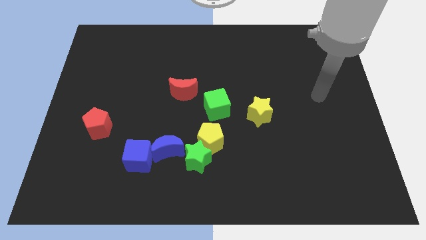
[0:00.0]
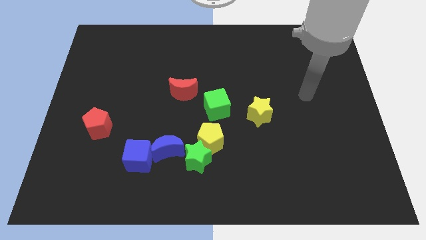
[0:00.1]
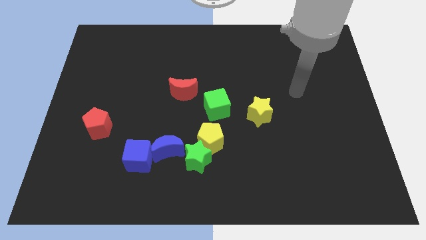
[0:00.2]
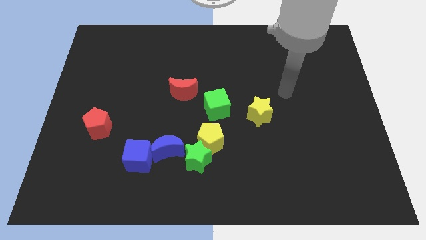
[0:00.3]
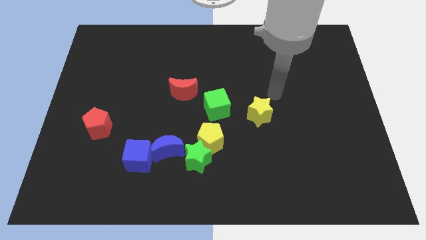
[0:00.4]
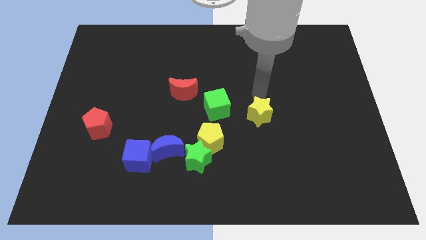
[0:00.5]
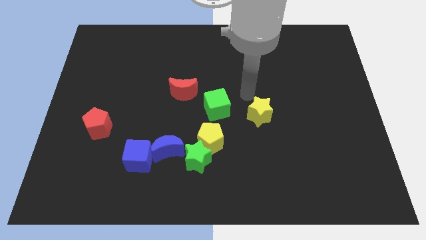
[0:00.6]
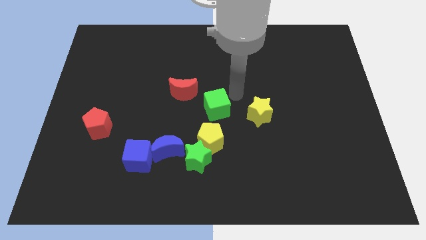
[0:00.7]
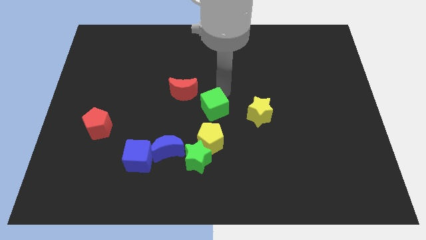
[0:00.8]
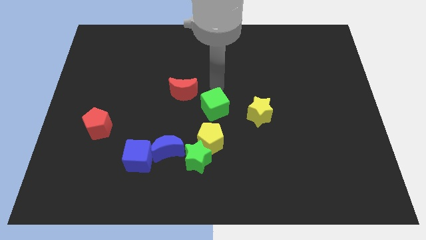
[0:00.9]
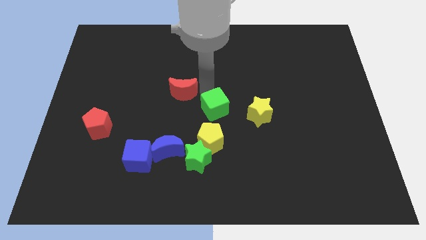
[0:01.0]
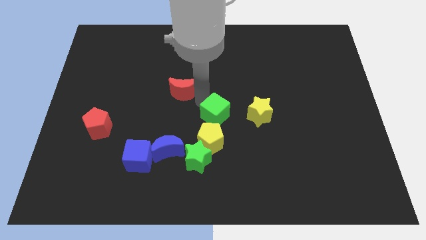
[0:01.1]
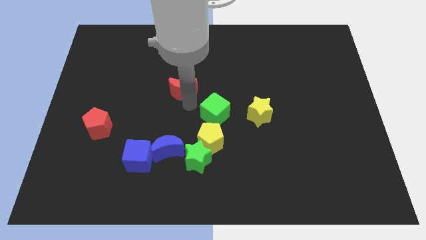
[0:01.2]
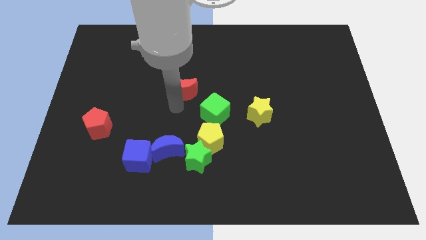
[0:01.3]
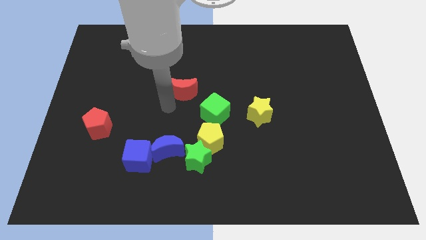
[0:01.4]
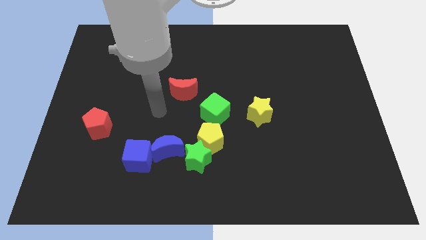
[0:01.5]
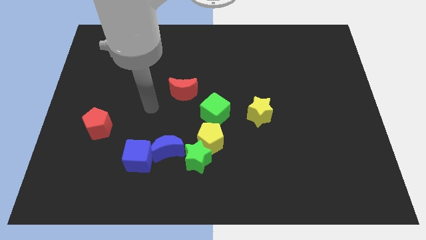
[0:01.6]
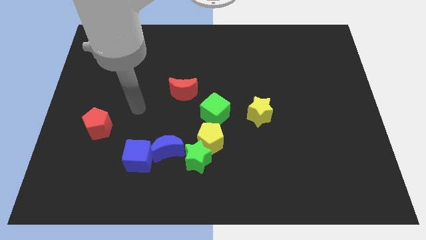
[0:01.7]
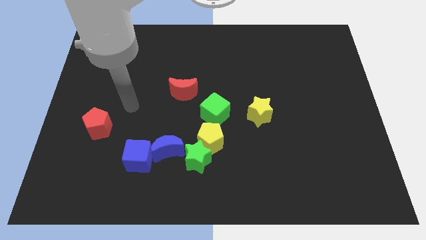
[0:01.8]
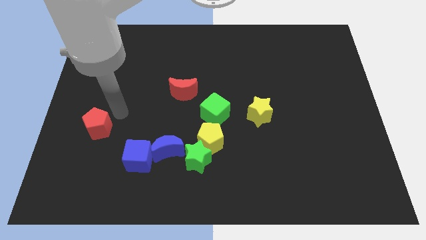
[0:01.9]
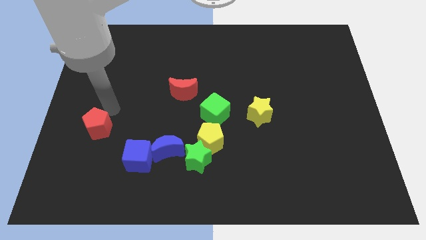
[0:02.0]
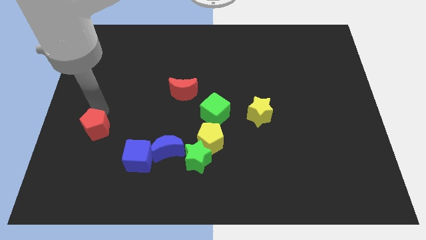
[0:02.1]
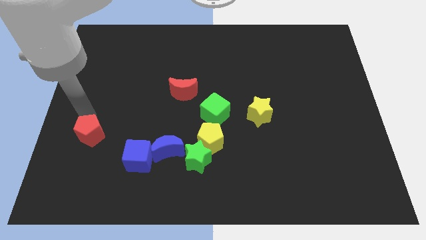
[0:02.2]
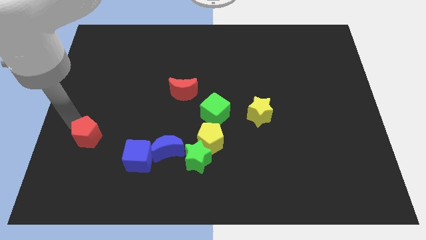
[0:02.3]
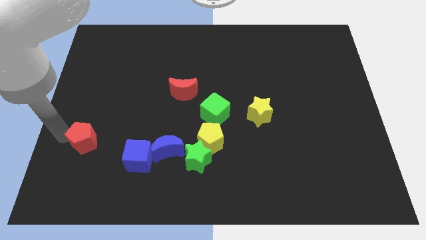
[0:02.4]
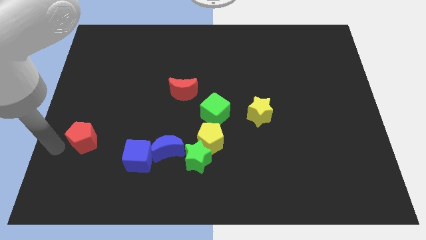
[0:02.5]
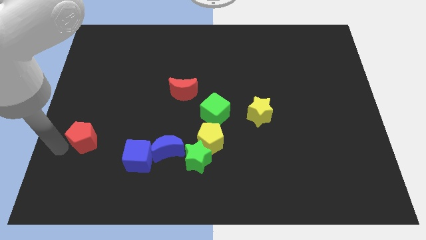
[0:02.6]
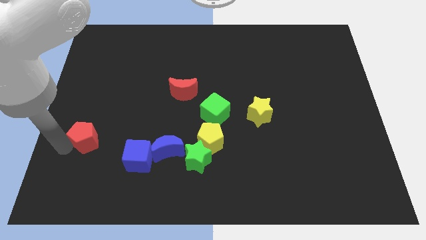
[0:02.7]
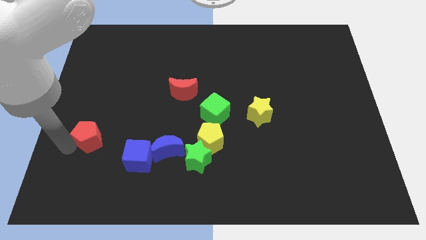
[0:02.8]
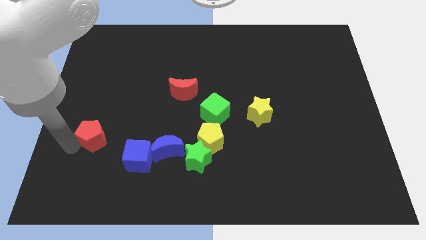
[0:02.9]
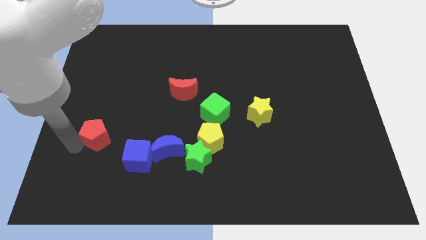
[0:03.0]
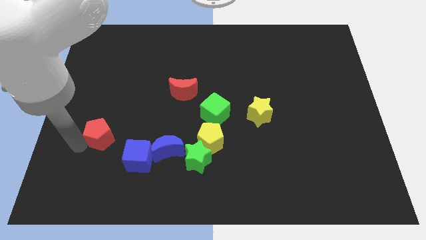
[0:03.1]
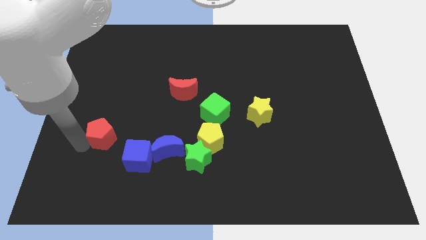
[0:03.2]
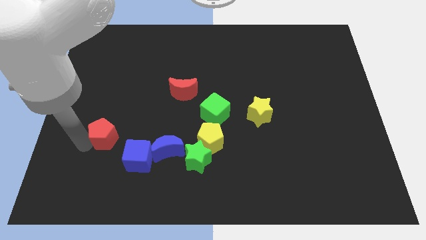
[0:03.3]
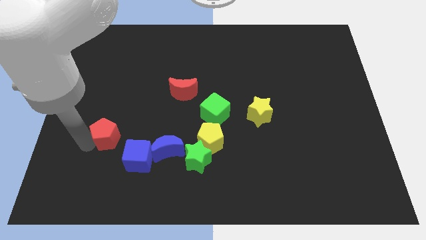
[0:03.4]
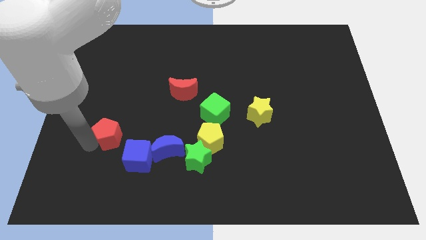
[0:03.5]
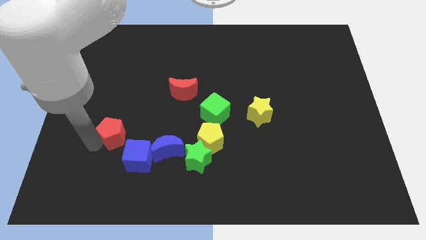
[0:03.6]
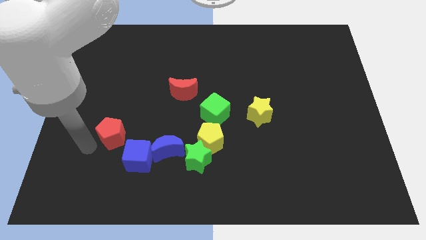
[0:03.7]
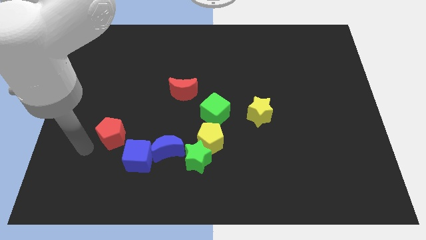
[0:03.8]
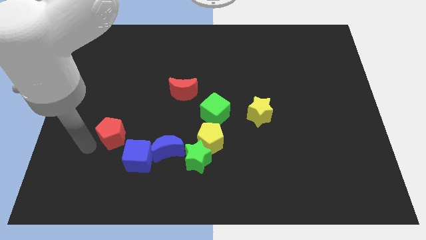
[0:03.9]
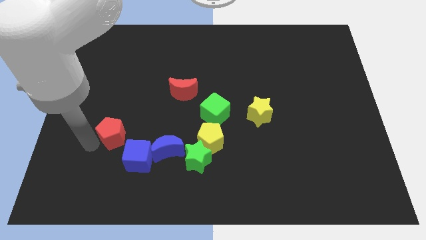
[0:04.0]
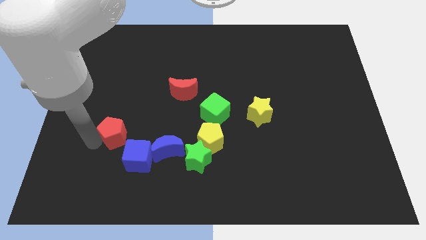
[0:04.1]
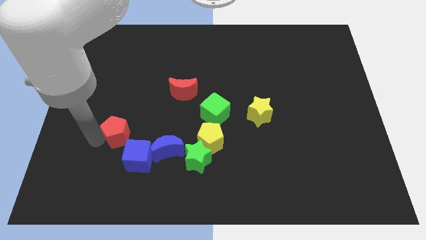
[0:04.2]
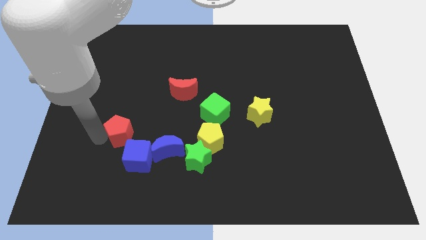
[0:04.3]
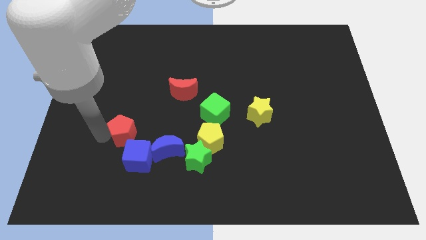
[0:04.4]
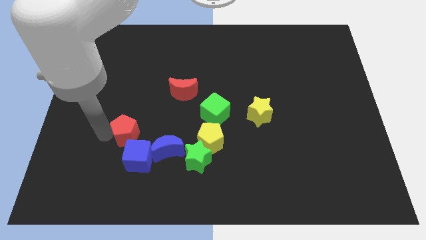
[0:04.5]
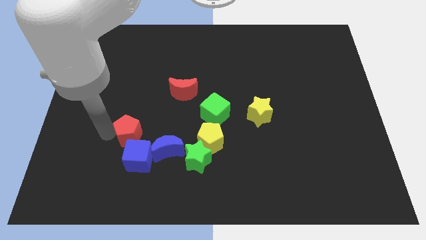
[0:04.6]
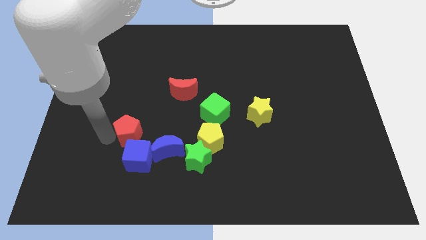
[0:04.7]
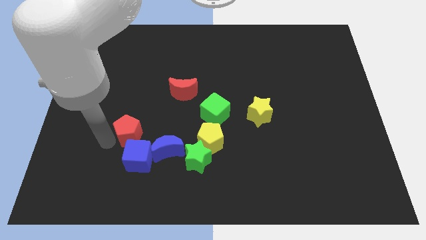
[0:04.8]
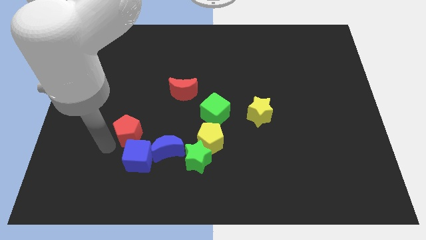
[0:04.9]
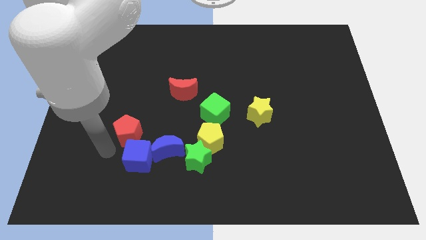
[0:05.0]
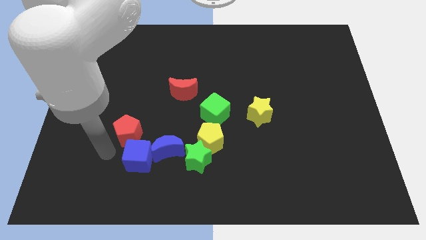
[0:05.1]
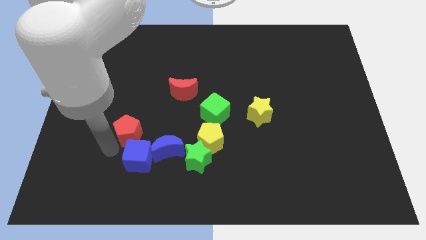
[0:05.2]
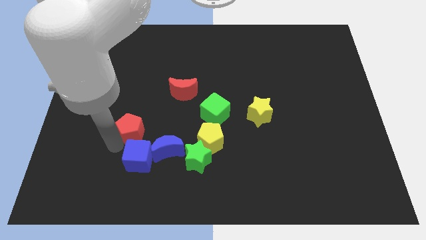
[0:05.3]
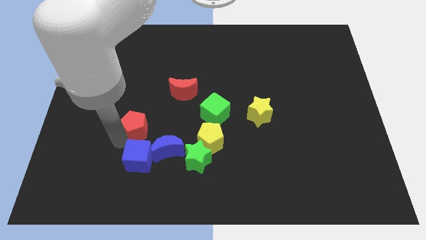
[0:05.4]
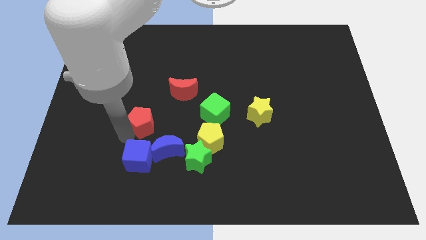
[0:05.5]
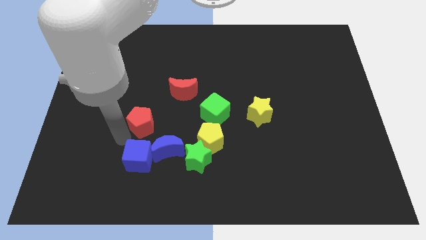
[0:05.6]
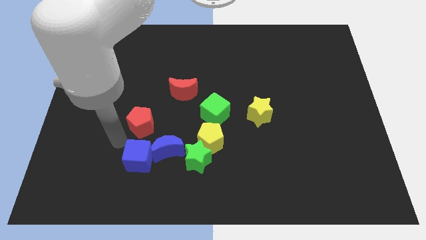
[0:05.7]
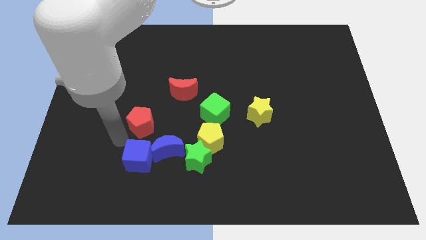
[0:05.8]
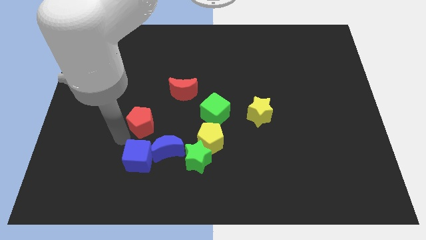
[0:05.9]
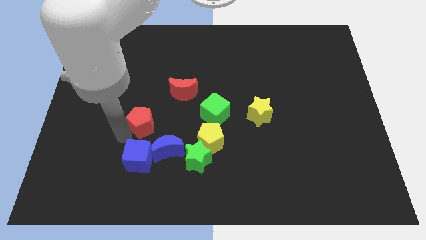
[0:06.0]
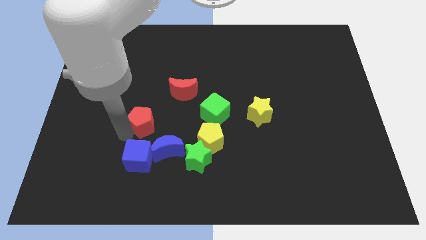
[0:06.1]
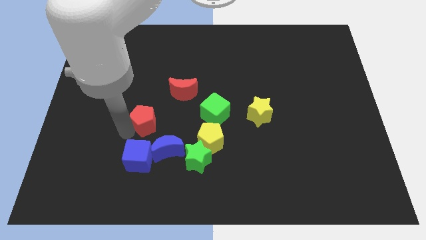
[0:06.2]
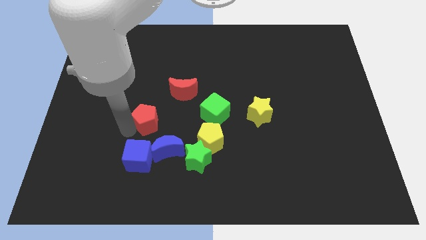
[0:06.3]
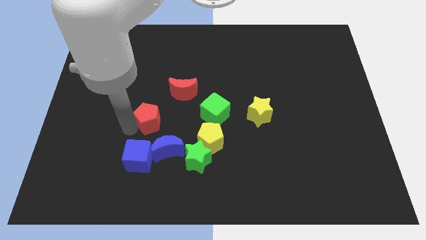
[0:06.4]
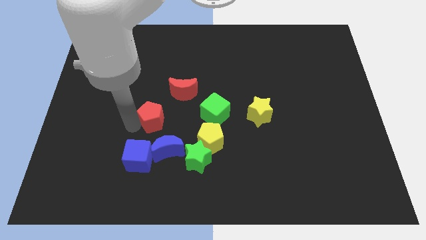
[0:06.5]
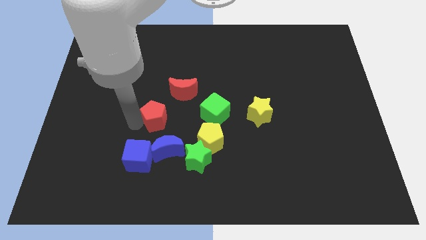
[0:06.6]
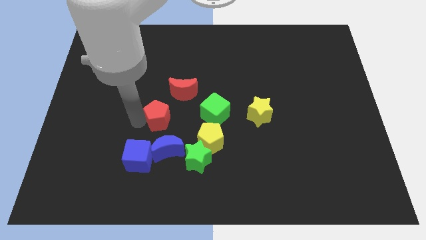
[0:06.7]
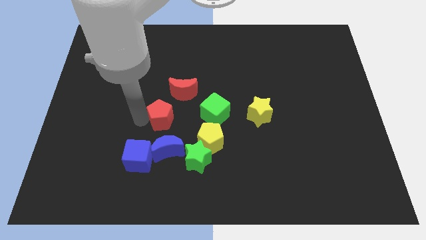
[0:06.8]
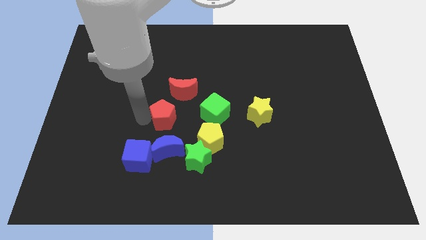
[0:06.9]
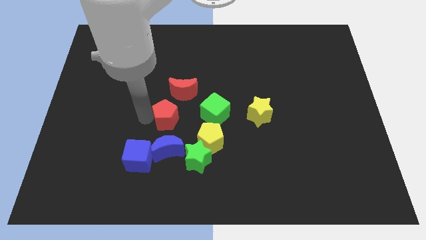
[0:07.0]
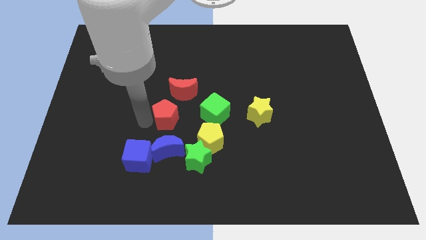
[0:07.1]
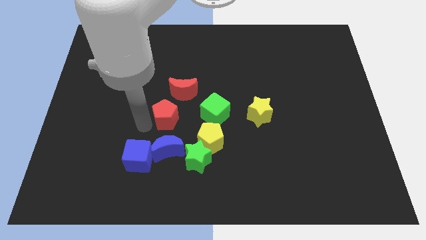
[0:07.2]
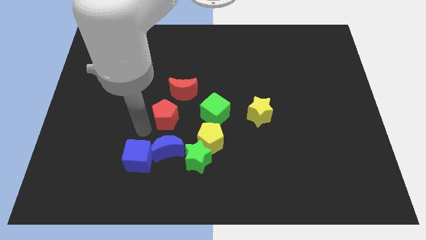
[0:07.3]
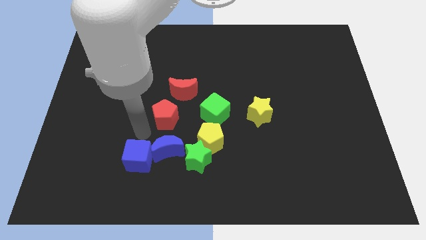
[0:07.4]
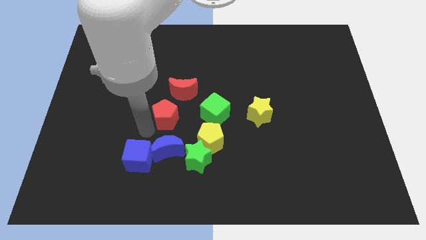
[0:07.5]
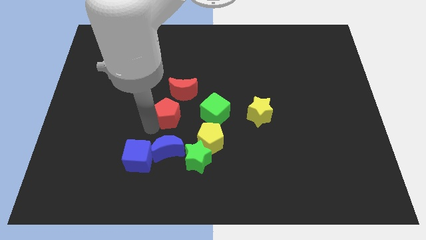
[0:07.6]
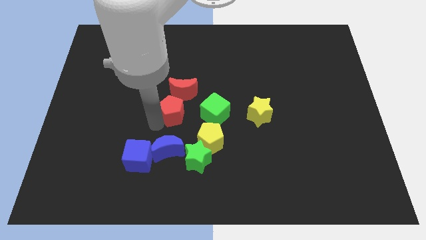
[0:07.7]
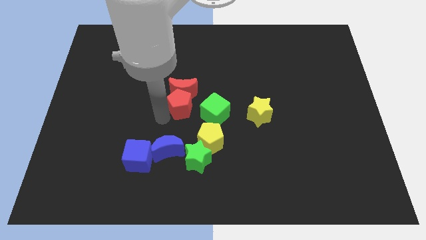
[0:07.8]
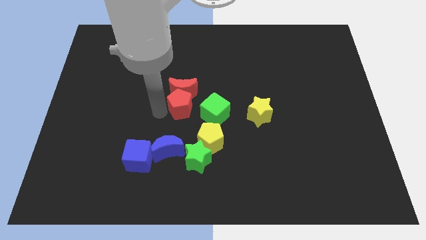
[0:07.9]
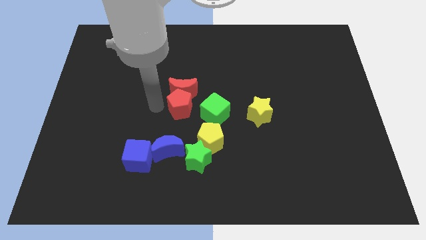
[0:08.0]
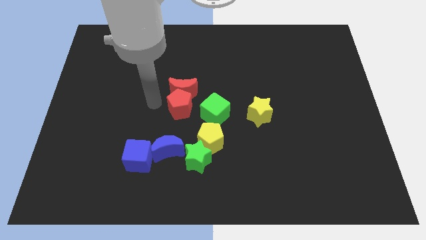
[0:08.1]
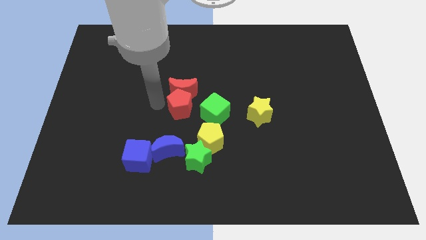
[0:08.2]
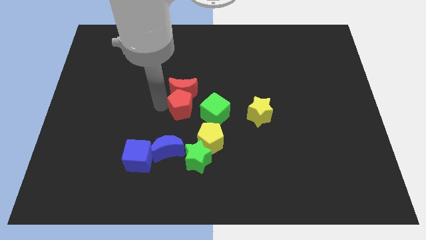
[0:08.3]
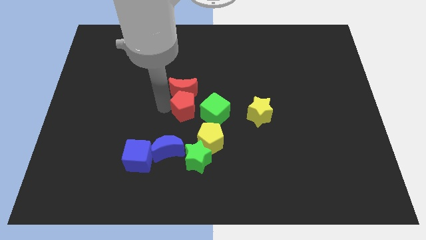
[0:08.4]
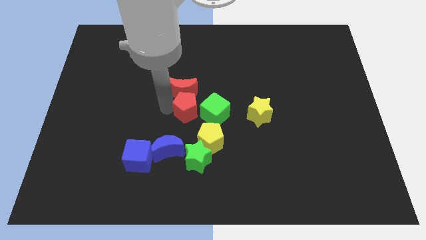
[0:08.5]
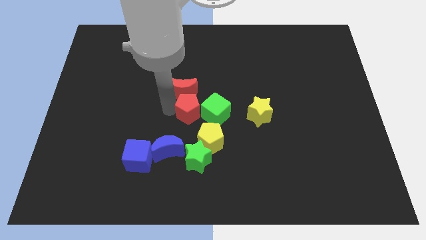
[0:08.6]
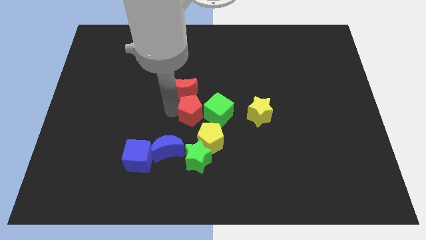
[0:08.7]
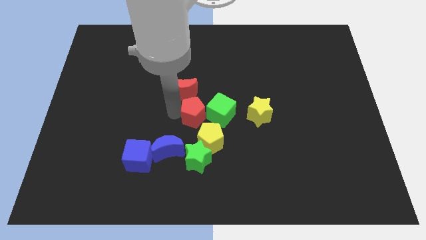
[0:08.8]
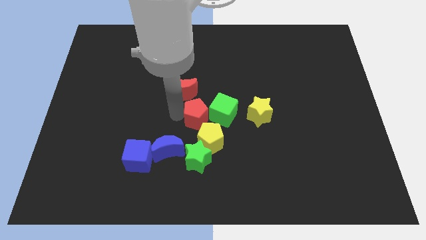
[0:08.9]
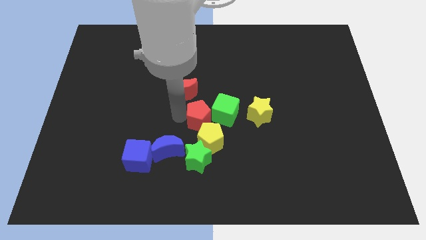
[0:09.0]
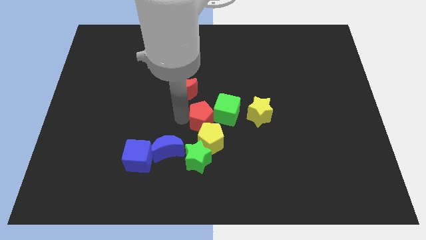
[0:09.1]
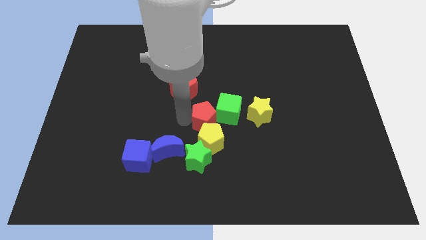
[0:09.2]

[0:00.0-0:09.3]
put the red pentagon close to the green cube
